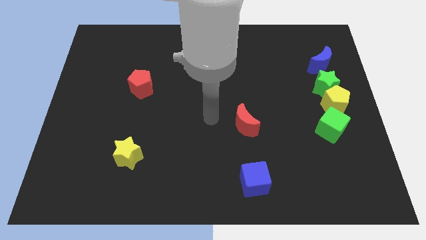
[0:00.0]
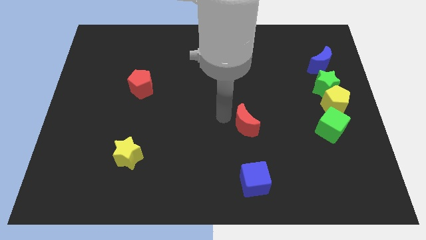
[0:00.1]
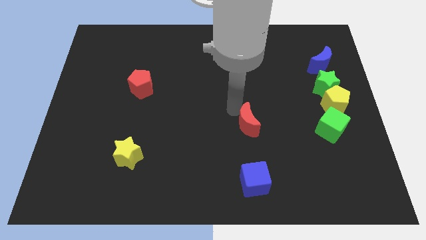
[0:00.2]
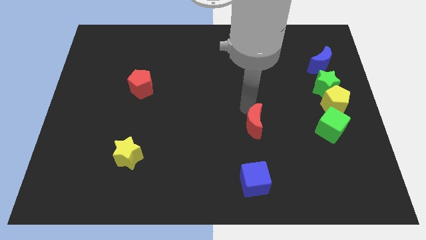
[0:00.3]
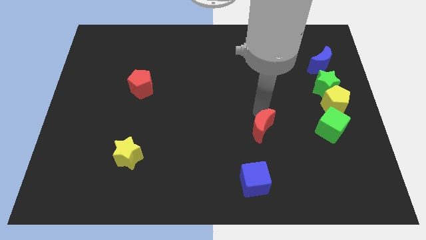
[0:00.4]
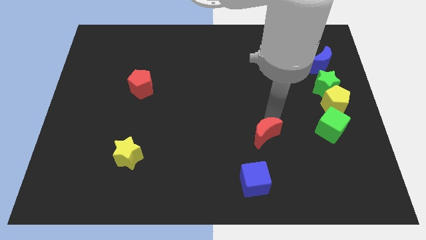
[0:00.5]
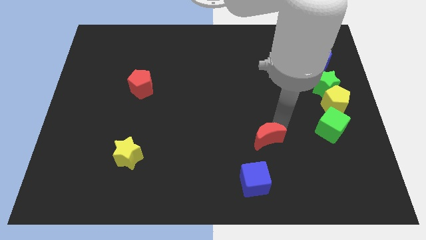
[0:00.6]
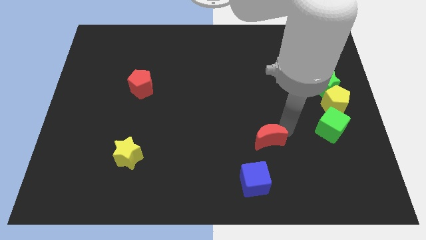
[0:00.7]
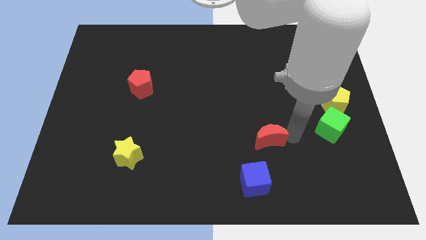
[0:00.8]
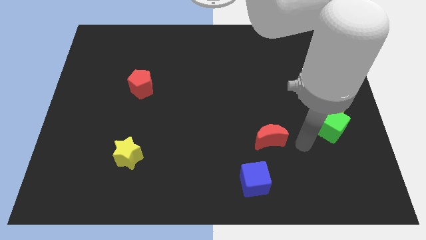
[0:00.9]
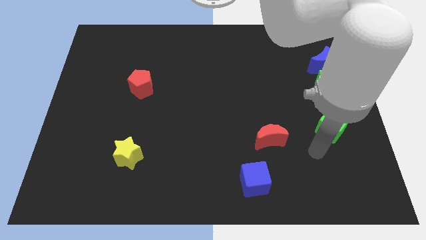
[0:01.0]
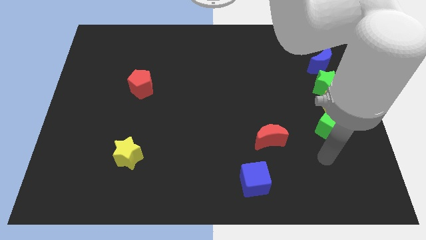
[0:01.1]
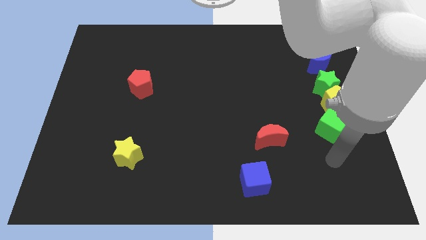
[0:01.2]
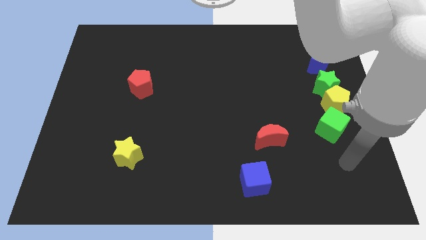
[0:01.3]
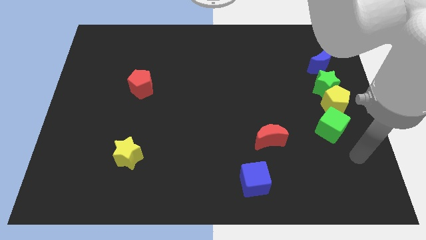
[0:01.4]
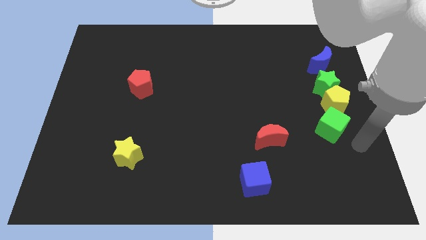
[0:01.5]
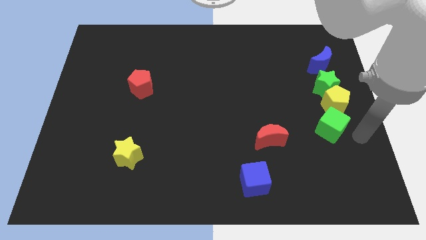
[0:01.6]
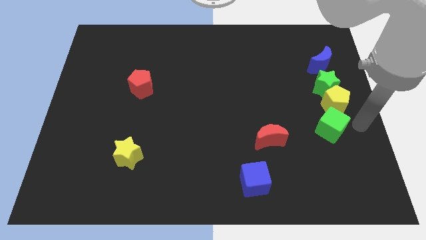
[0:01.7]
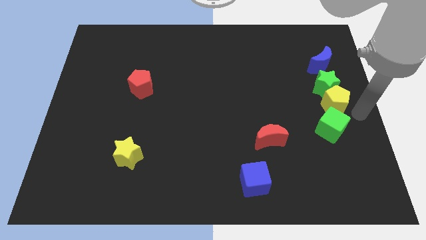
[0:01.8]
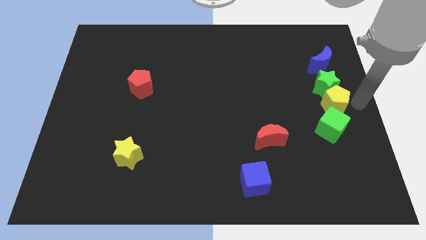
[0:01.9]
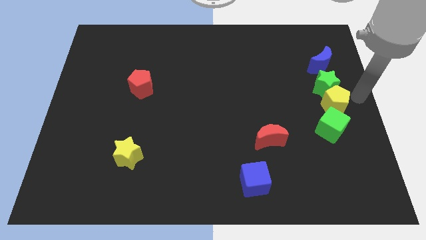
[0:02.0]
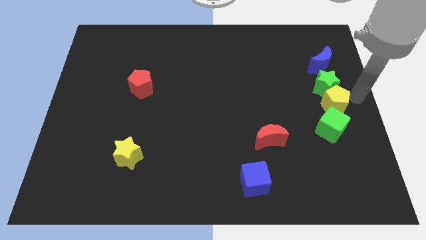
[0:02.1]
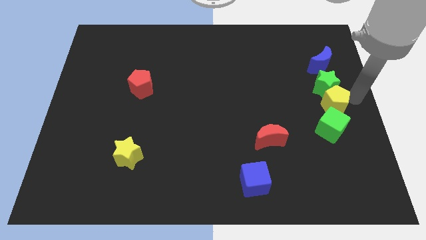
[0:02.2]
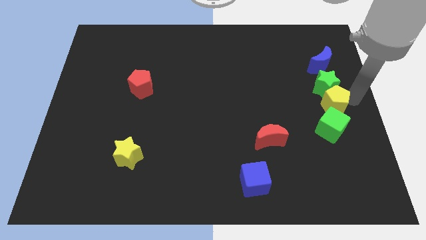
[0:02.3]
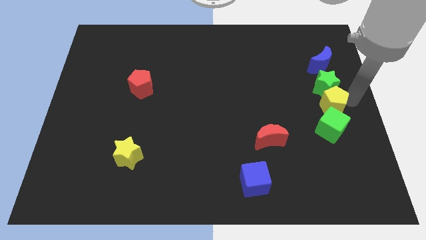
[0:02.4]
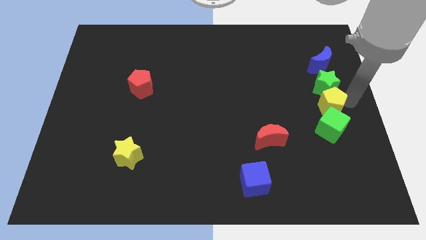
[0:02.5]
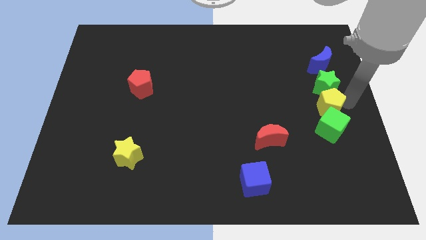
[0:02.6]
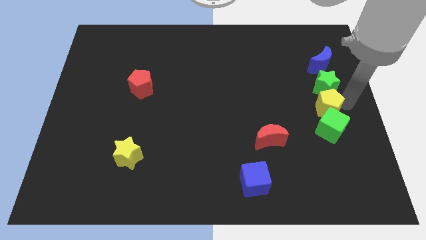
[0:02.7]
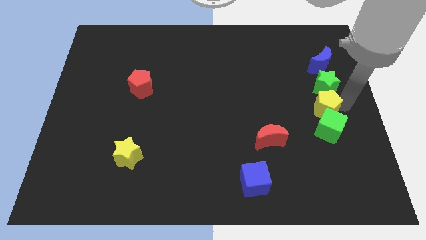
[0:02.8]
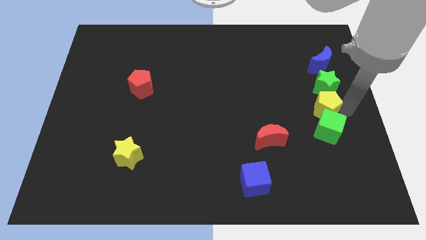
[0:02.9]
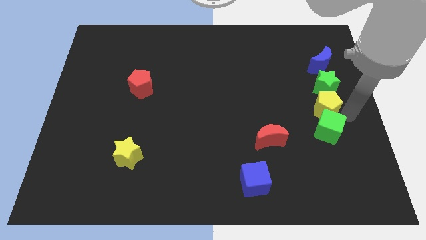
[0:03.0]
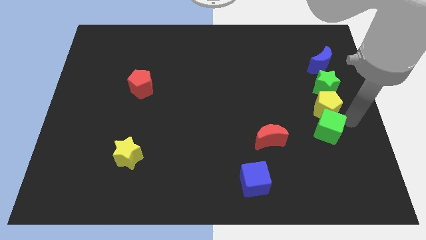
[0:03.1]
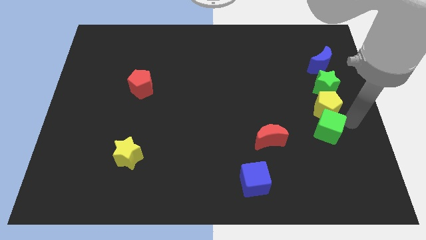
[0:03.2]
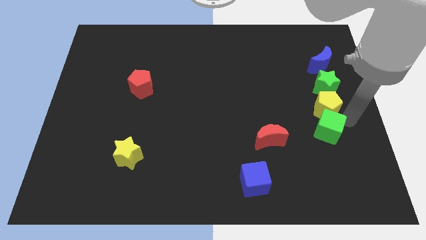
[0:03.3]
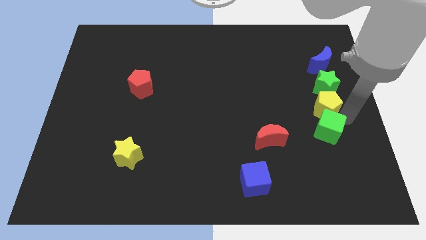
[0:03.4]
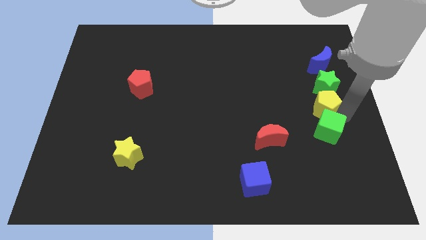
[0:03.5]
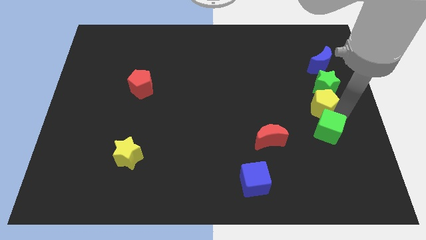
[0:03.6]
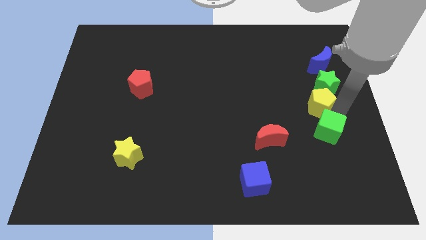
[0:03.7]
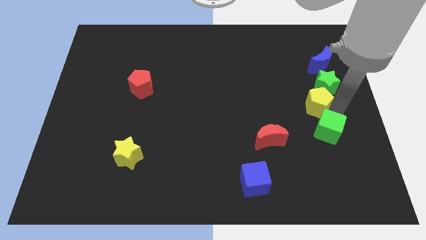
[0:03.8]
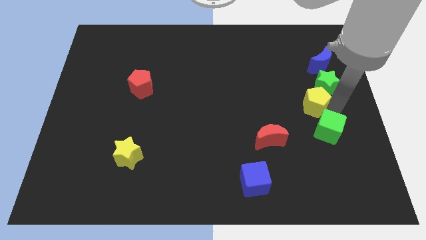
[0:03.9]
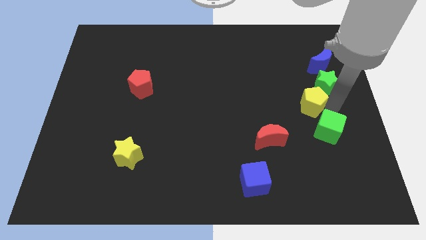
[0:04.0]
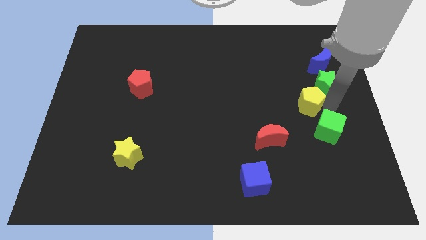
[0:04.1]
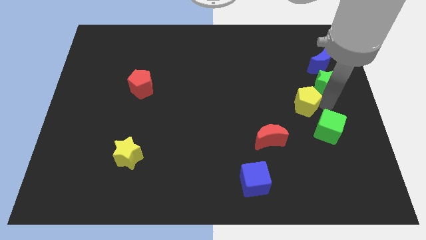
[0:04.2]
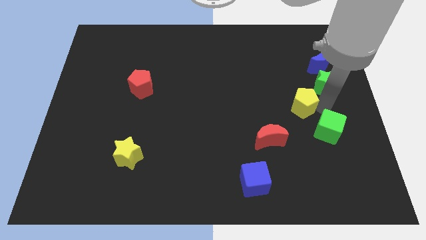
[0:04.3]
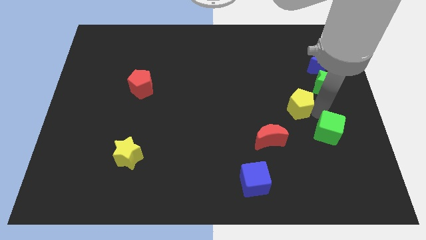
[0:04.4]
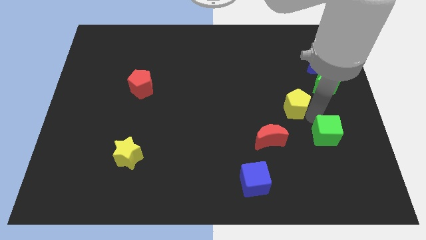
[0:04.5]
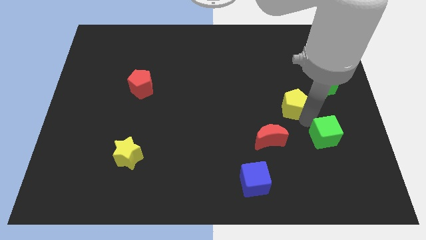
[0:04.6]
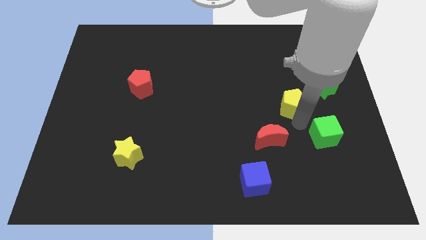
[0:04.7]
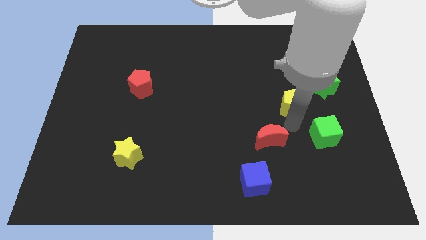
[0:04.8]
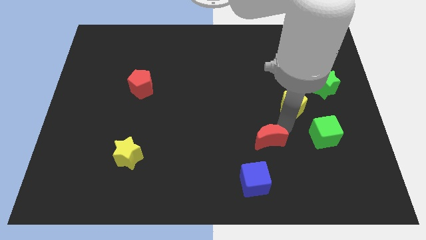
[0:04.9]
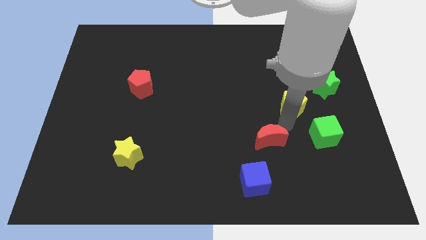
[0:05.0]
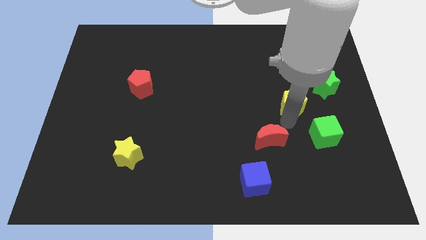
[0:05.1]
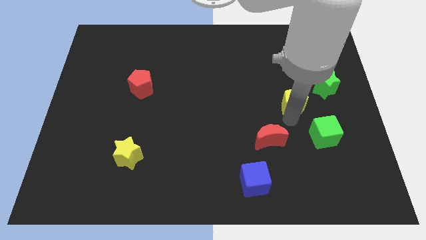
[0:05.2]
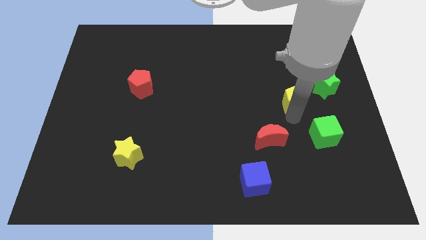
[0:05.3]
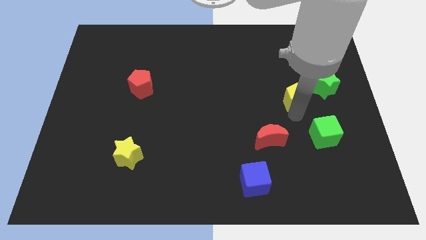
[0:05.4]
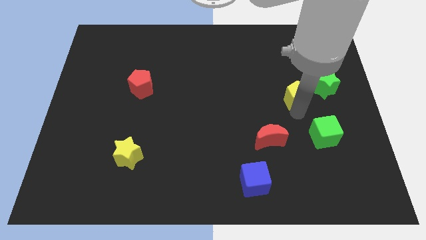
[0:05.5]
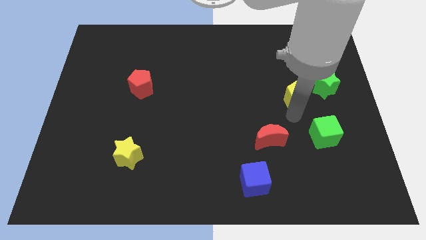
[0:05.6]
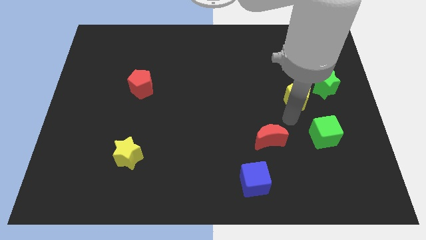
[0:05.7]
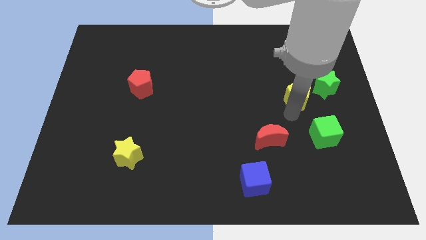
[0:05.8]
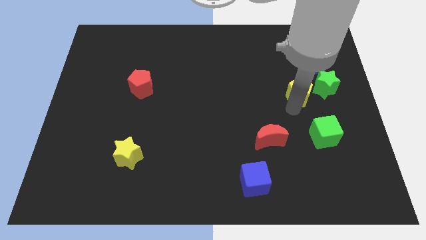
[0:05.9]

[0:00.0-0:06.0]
slide the yellow pentagon diagonally down and to the left of the blue moon

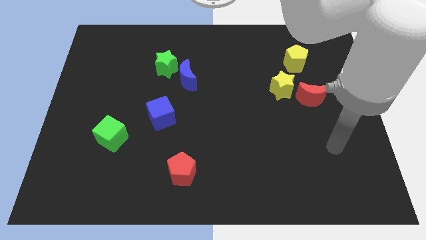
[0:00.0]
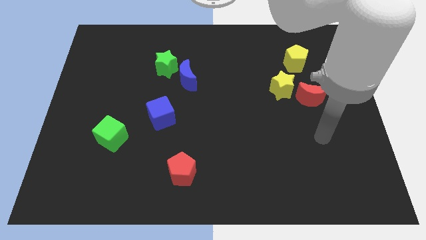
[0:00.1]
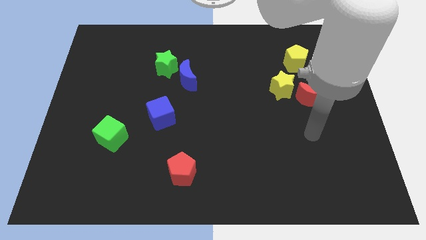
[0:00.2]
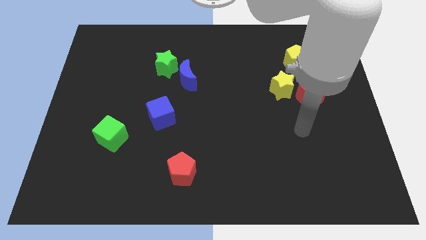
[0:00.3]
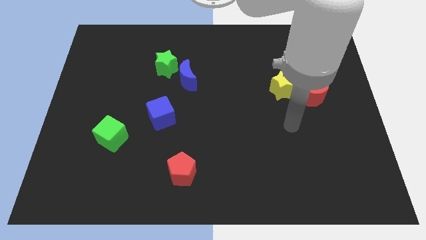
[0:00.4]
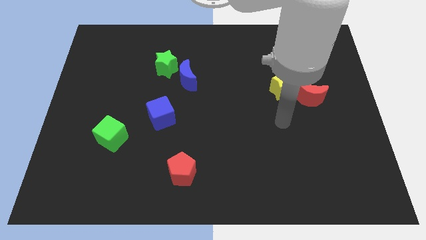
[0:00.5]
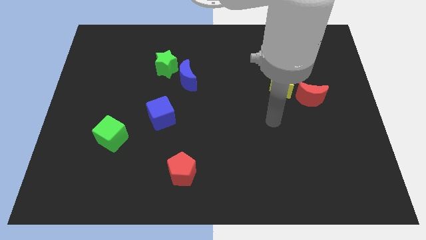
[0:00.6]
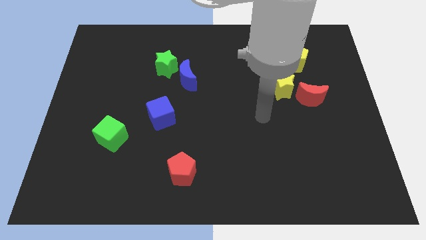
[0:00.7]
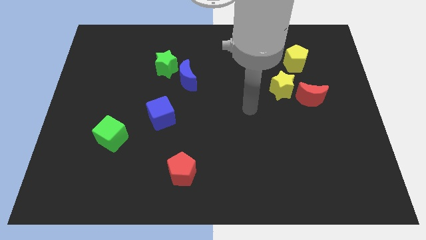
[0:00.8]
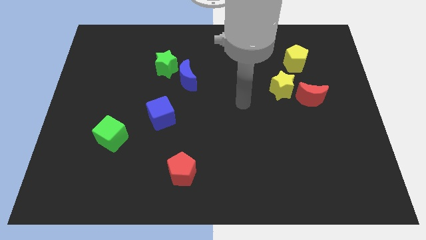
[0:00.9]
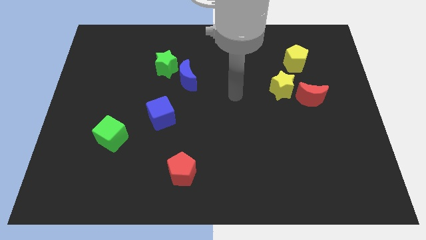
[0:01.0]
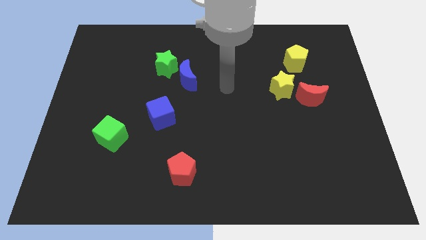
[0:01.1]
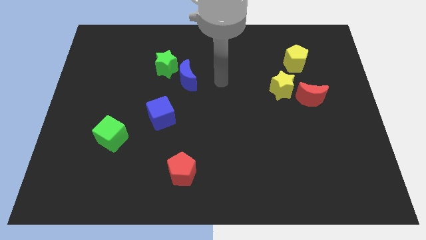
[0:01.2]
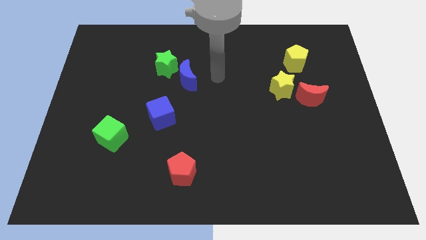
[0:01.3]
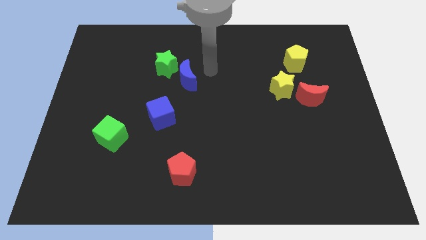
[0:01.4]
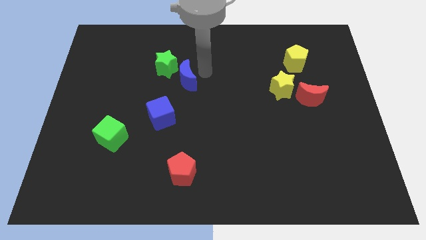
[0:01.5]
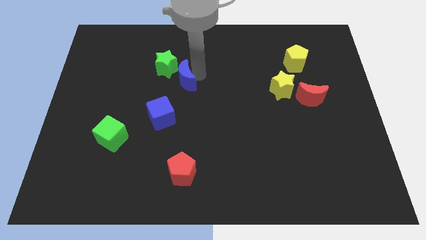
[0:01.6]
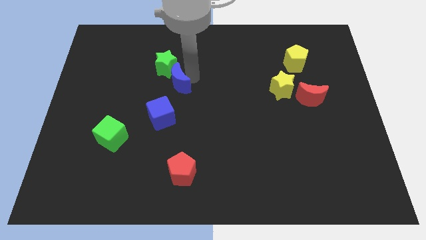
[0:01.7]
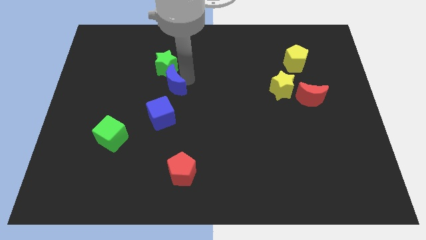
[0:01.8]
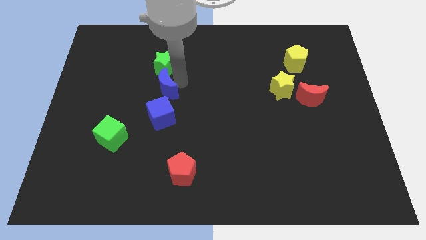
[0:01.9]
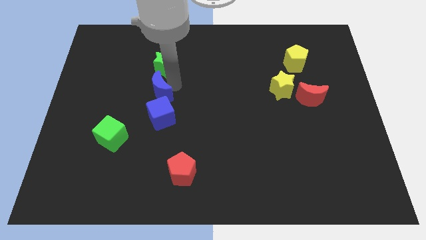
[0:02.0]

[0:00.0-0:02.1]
push the blue moon to the top left of the blue cube
